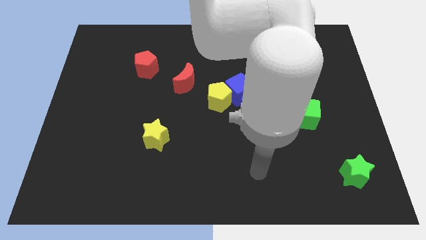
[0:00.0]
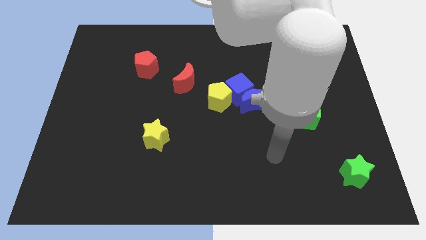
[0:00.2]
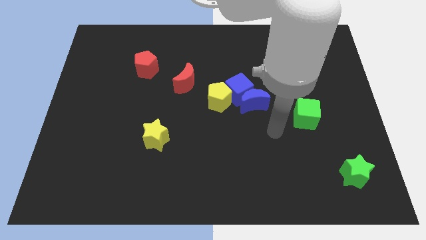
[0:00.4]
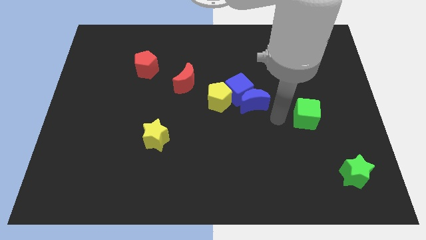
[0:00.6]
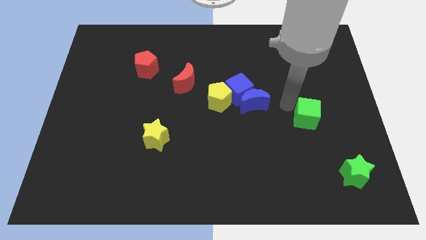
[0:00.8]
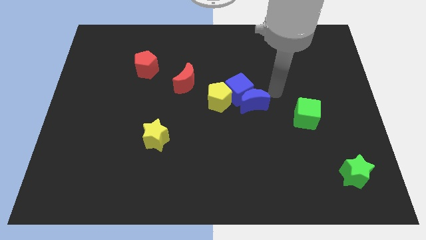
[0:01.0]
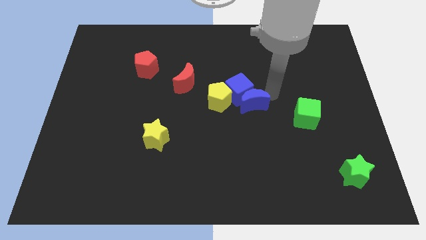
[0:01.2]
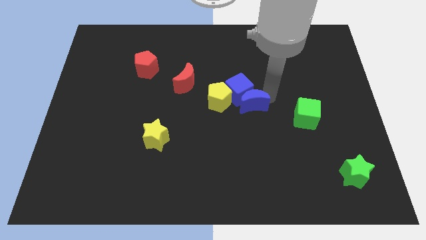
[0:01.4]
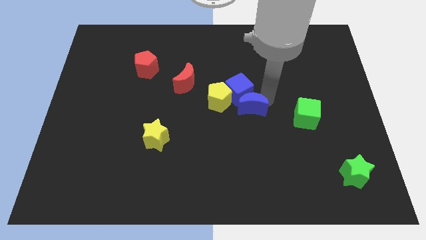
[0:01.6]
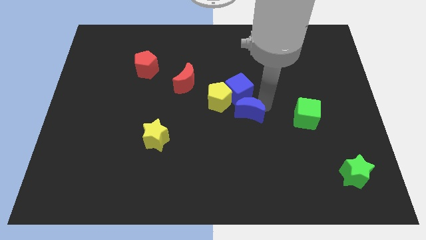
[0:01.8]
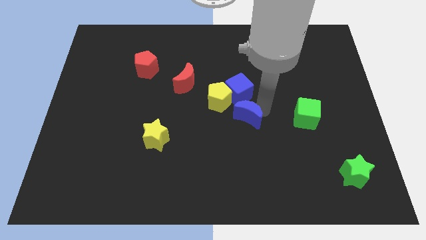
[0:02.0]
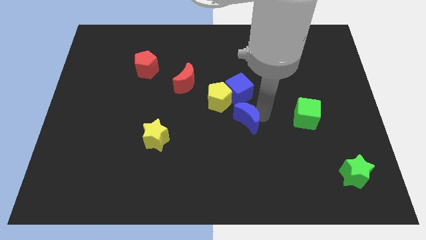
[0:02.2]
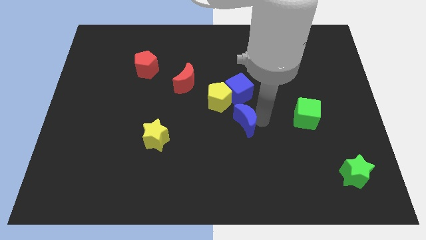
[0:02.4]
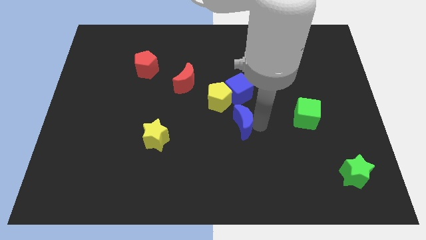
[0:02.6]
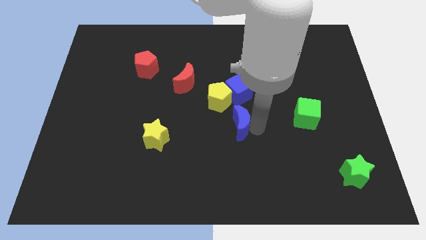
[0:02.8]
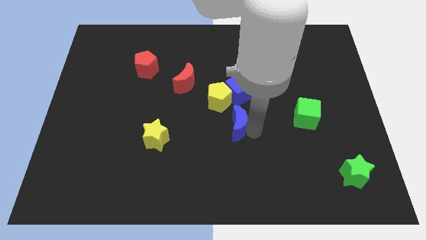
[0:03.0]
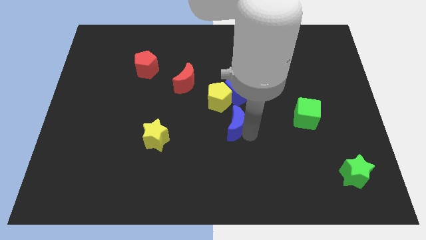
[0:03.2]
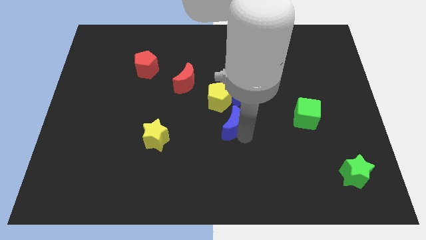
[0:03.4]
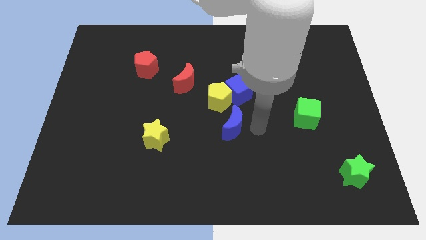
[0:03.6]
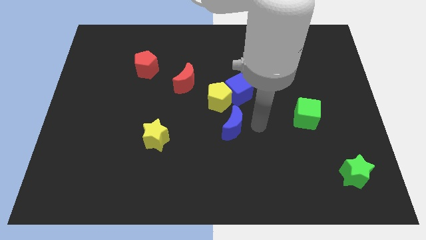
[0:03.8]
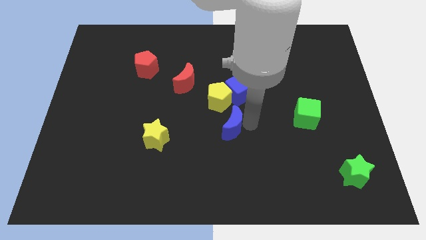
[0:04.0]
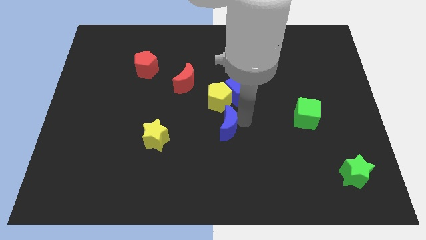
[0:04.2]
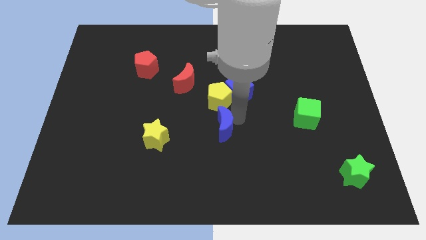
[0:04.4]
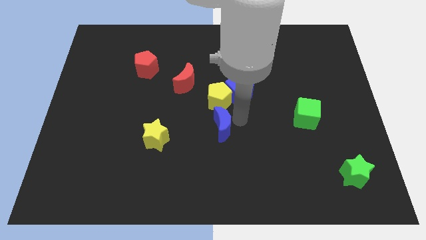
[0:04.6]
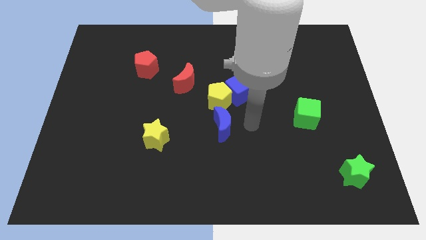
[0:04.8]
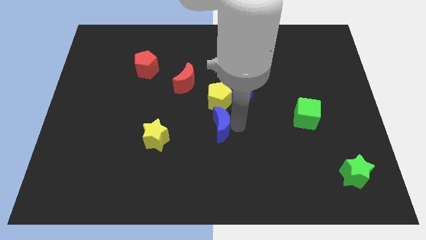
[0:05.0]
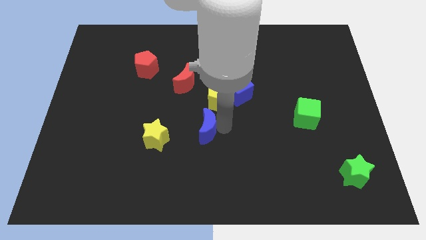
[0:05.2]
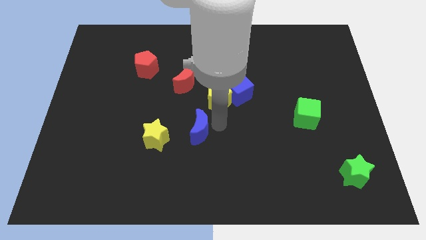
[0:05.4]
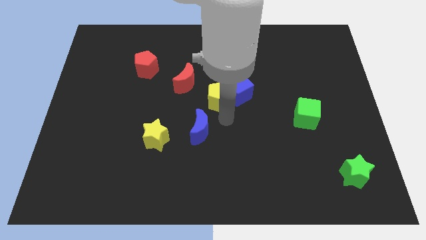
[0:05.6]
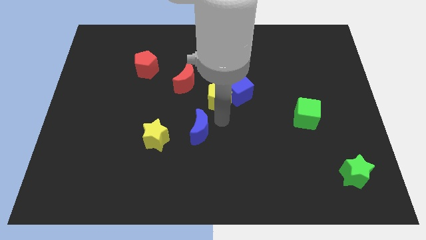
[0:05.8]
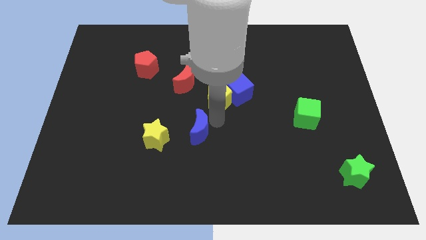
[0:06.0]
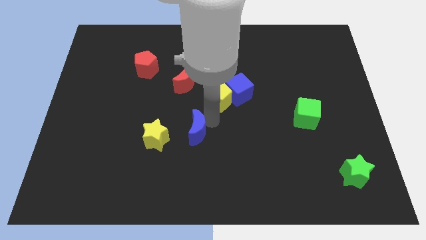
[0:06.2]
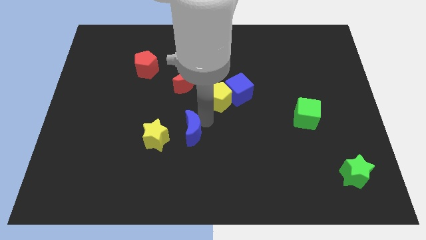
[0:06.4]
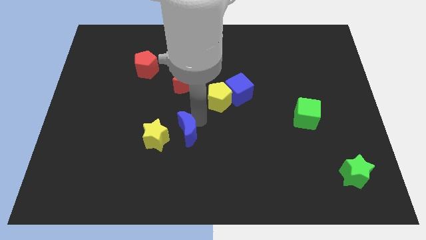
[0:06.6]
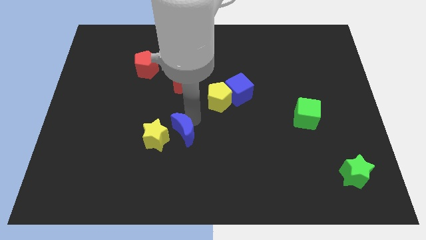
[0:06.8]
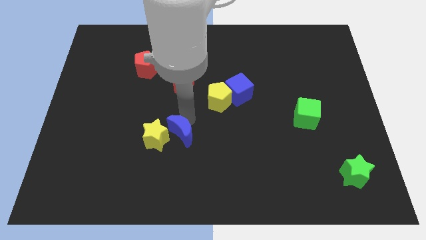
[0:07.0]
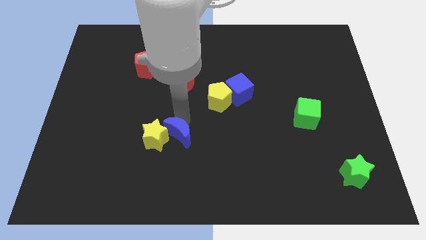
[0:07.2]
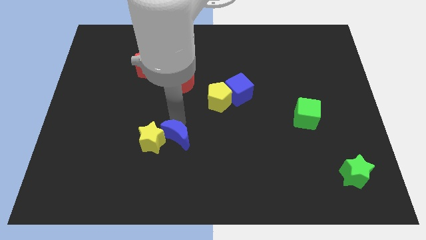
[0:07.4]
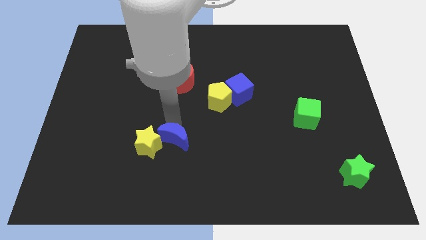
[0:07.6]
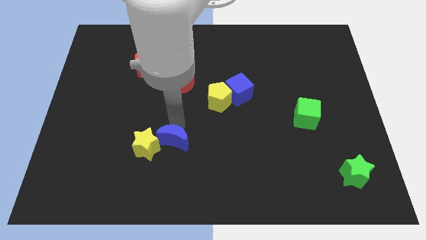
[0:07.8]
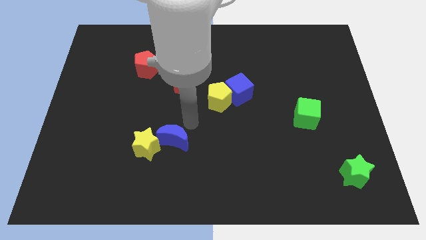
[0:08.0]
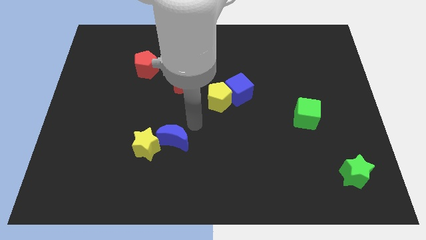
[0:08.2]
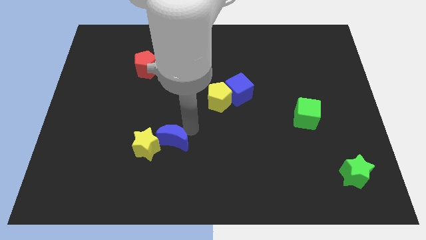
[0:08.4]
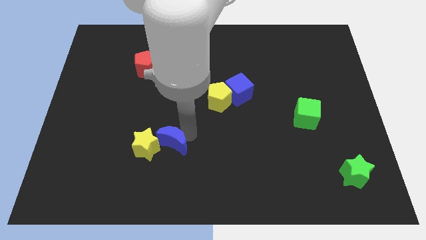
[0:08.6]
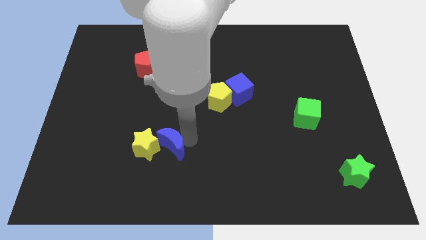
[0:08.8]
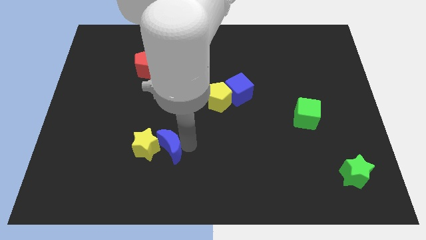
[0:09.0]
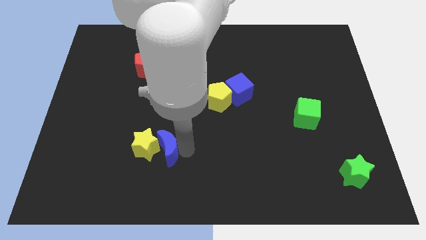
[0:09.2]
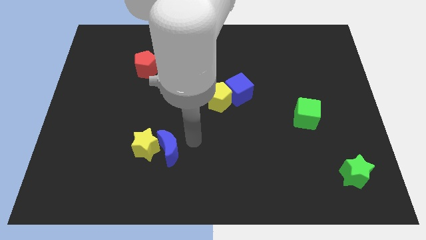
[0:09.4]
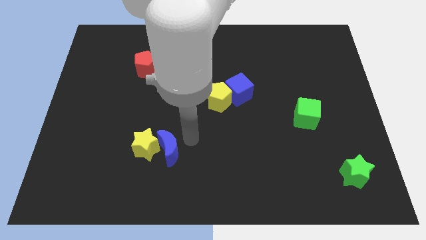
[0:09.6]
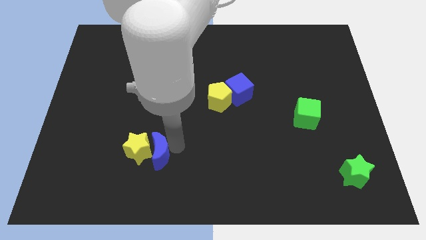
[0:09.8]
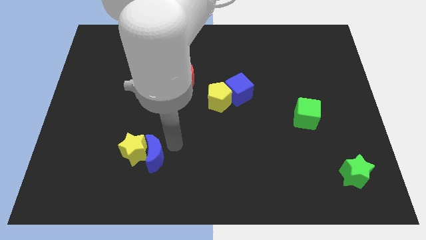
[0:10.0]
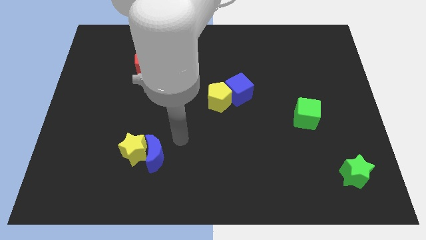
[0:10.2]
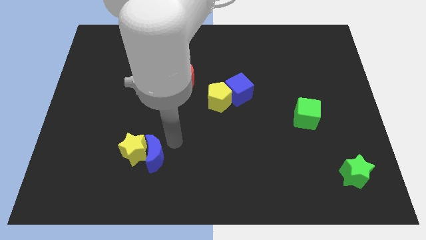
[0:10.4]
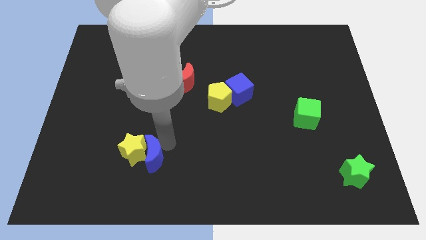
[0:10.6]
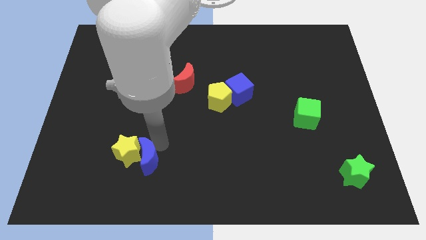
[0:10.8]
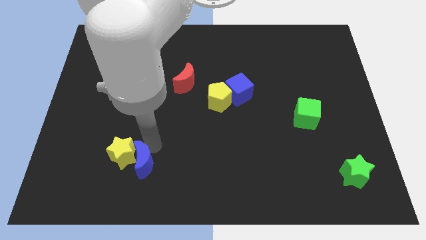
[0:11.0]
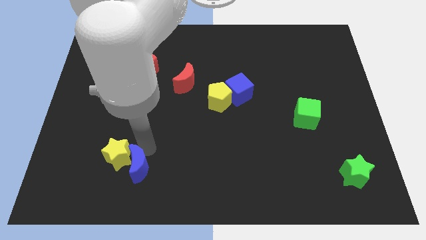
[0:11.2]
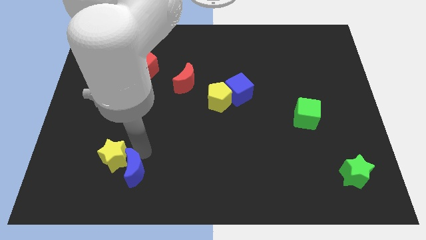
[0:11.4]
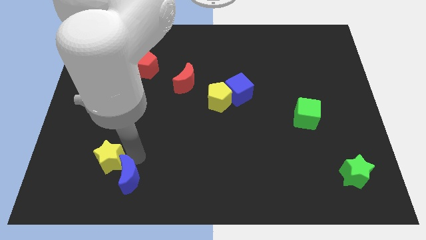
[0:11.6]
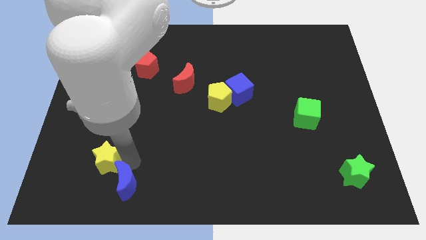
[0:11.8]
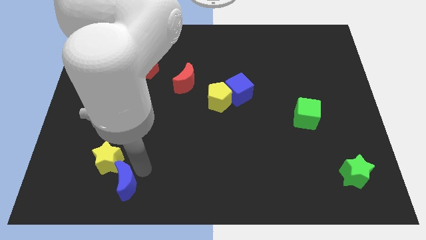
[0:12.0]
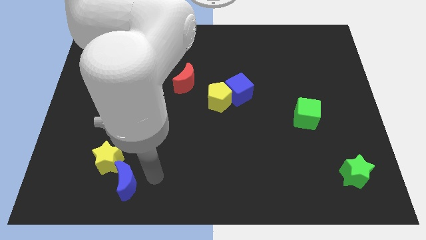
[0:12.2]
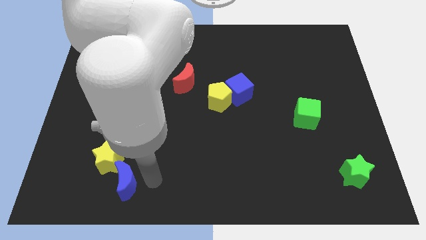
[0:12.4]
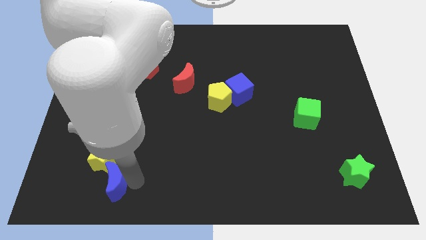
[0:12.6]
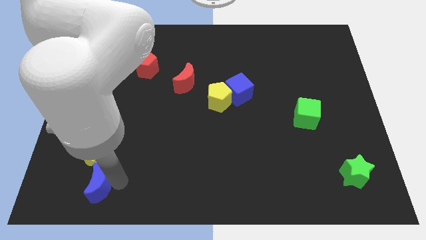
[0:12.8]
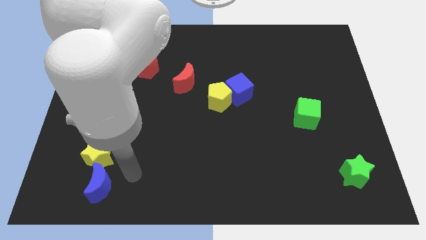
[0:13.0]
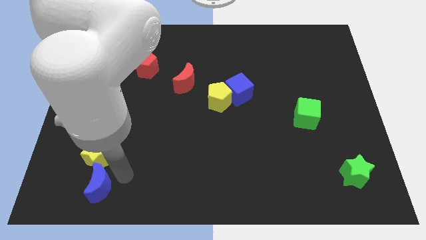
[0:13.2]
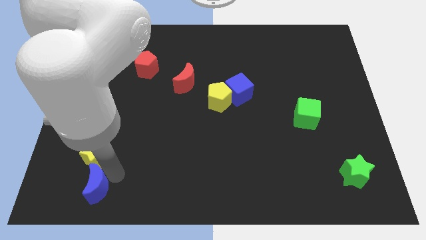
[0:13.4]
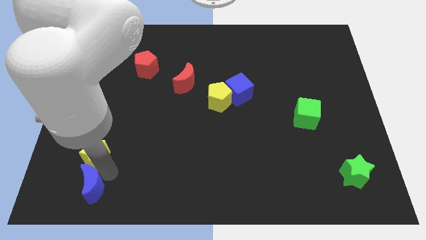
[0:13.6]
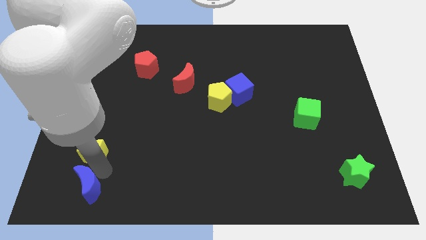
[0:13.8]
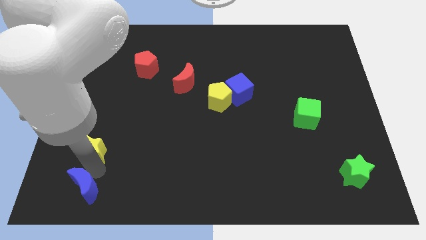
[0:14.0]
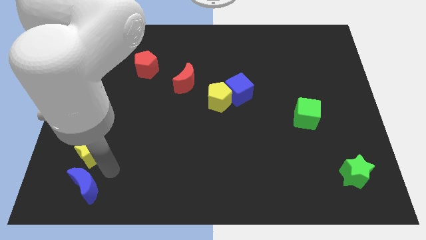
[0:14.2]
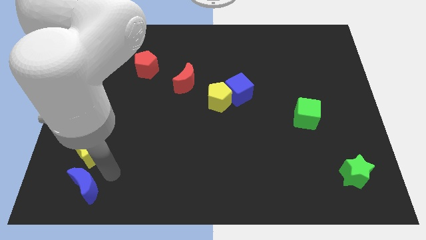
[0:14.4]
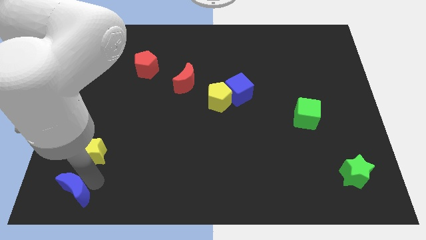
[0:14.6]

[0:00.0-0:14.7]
slide the blue moon to the bottom left corner
